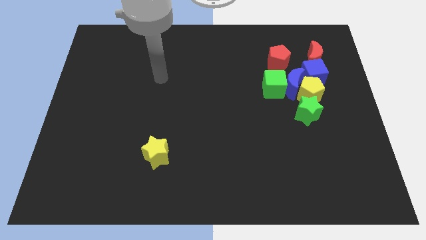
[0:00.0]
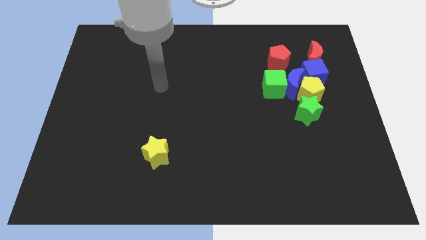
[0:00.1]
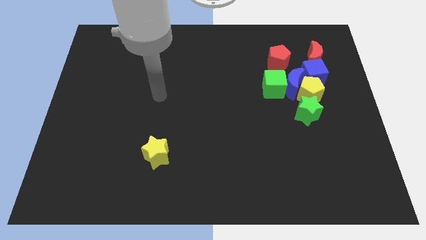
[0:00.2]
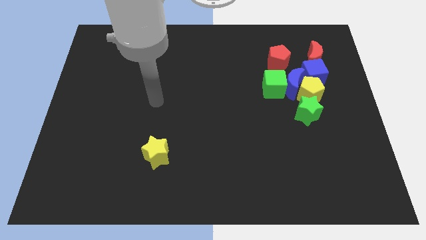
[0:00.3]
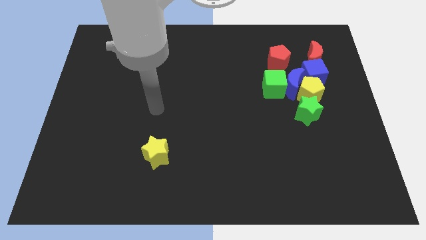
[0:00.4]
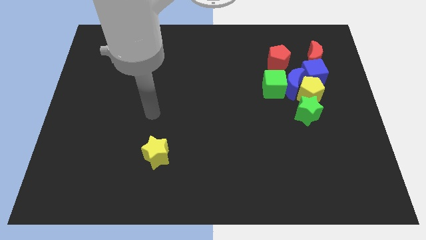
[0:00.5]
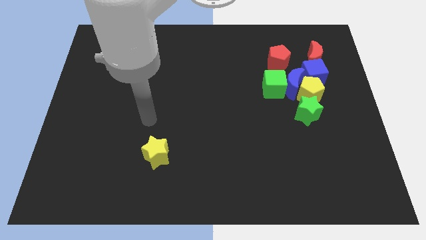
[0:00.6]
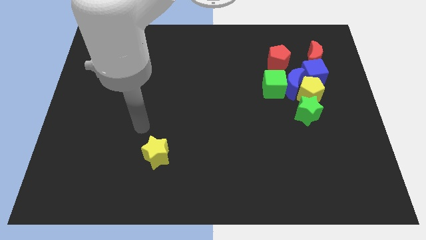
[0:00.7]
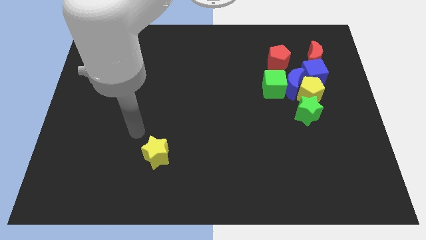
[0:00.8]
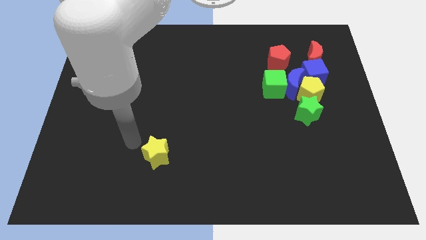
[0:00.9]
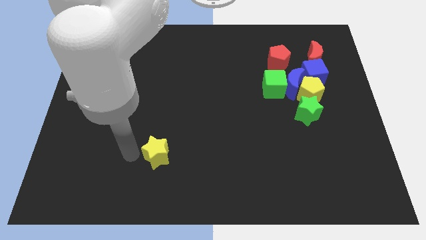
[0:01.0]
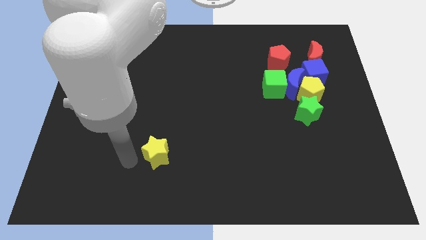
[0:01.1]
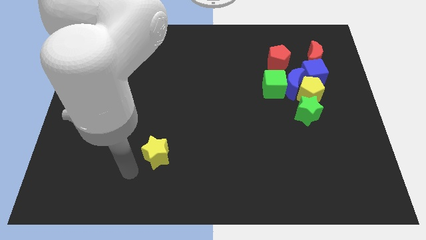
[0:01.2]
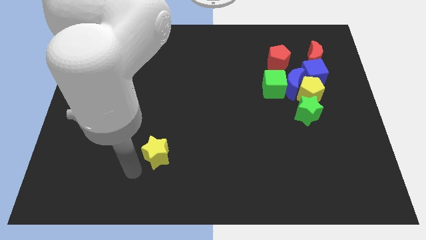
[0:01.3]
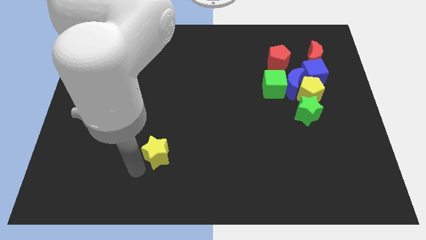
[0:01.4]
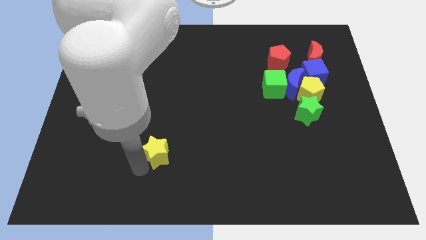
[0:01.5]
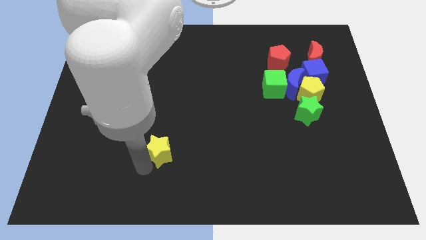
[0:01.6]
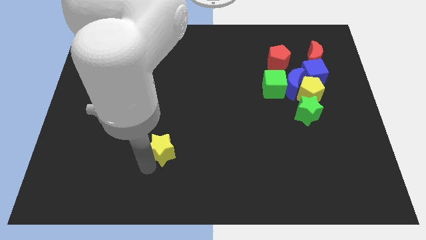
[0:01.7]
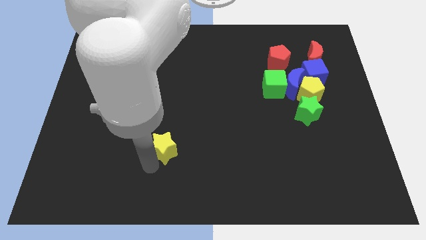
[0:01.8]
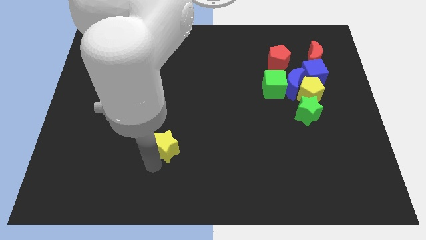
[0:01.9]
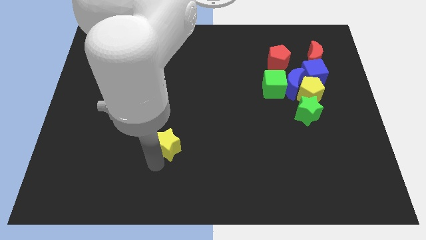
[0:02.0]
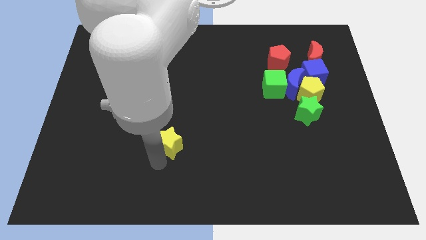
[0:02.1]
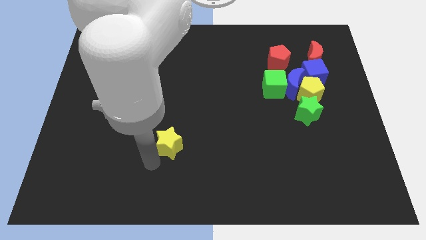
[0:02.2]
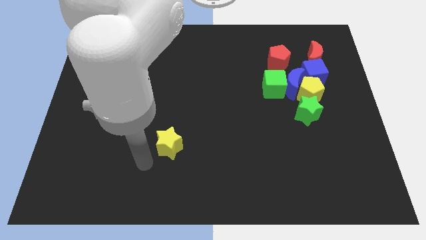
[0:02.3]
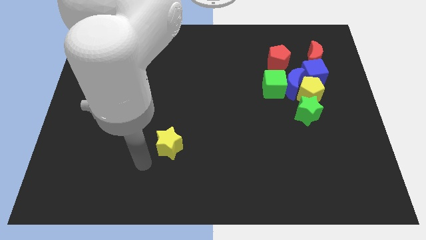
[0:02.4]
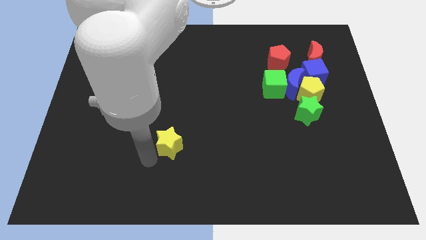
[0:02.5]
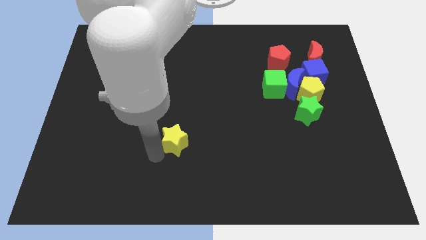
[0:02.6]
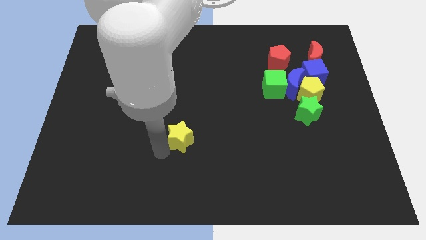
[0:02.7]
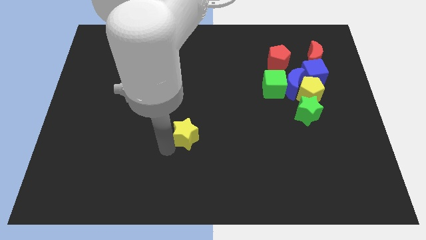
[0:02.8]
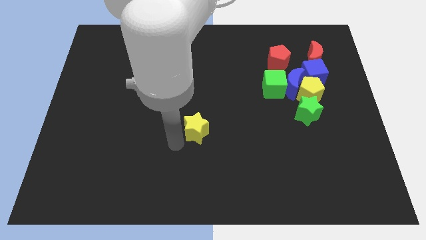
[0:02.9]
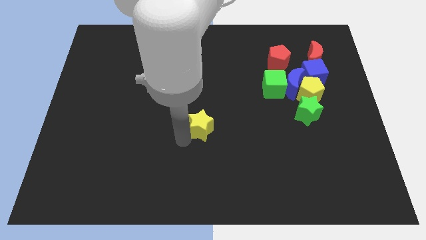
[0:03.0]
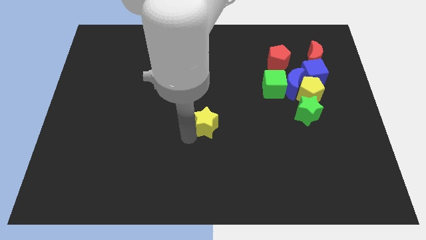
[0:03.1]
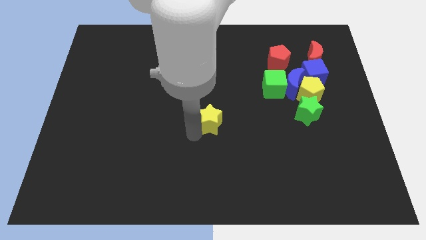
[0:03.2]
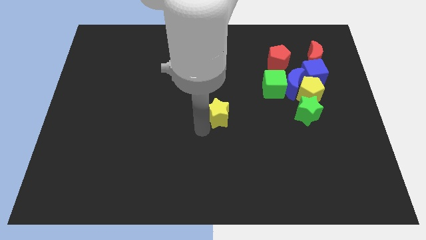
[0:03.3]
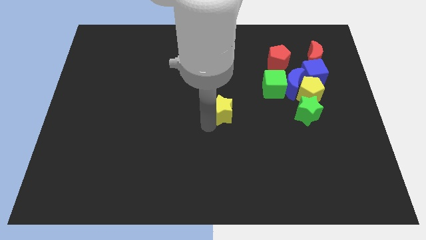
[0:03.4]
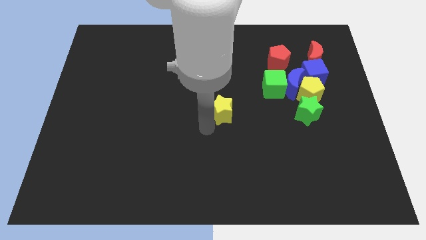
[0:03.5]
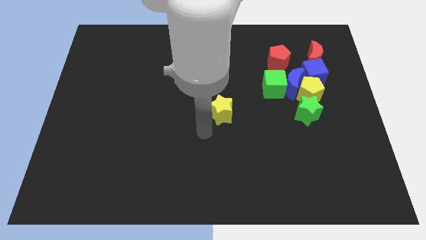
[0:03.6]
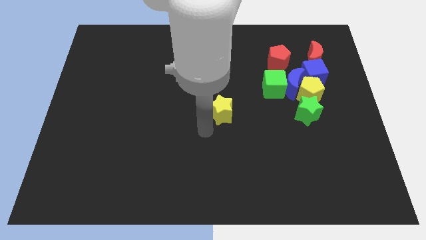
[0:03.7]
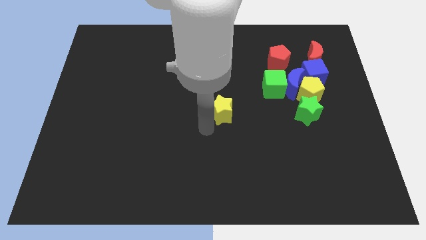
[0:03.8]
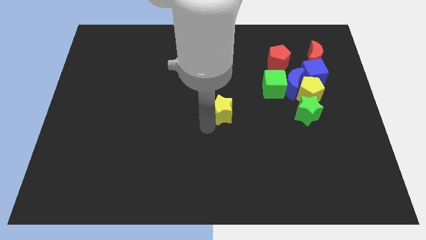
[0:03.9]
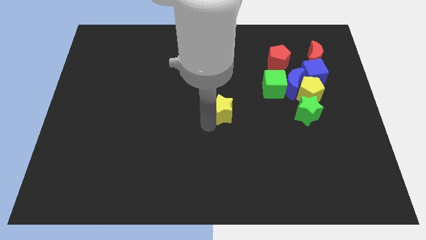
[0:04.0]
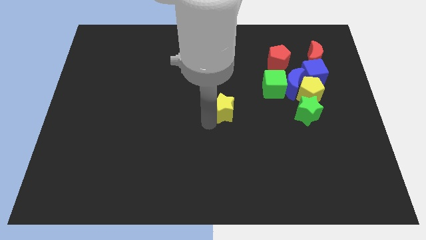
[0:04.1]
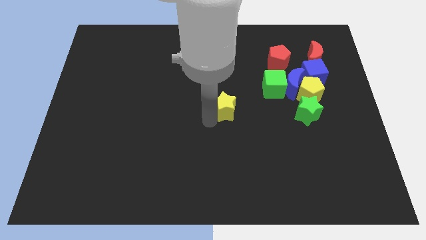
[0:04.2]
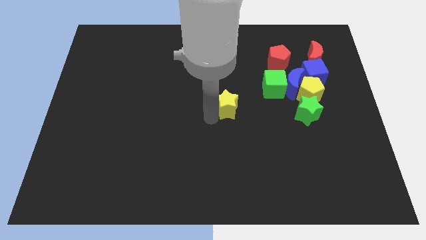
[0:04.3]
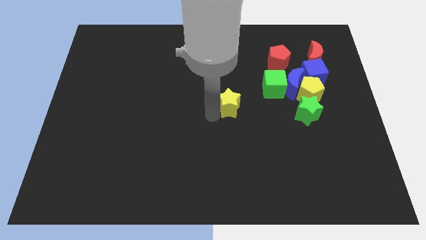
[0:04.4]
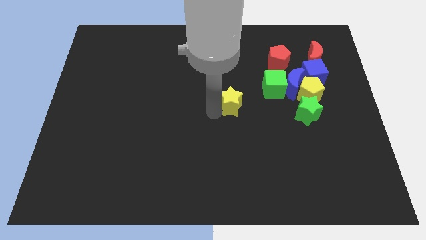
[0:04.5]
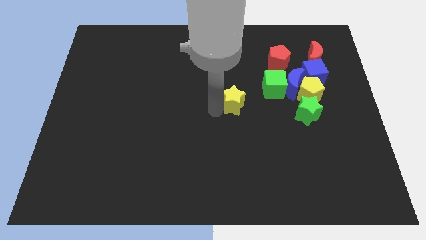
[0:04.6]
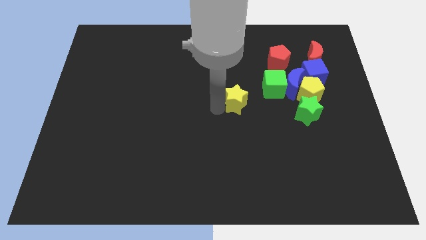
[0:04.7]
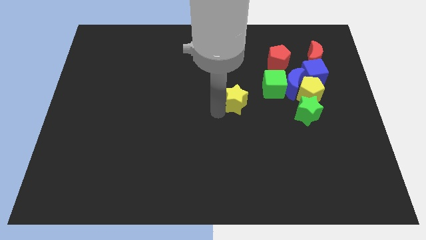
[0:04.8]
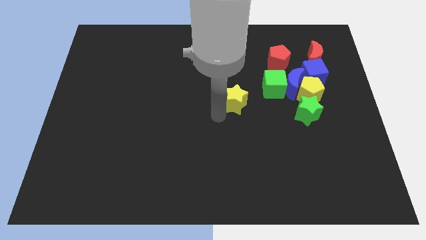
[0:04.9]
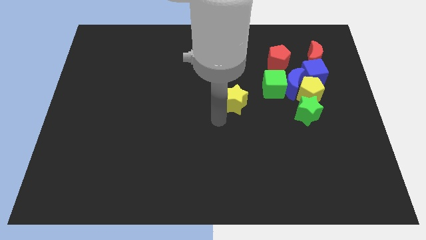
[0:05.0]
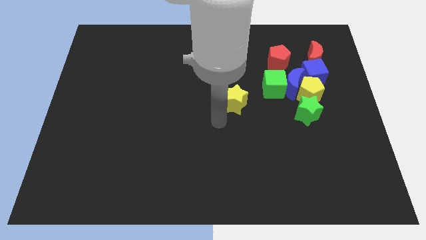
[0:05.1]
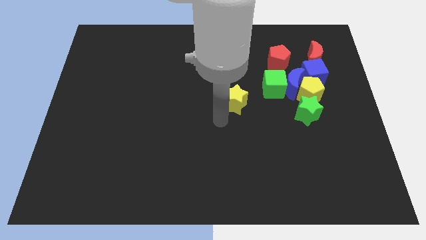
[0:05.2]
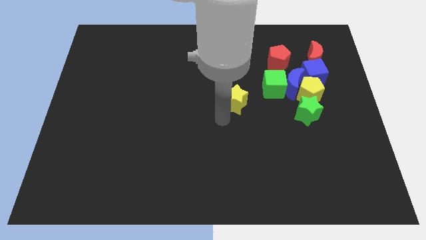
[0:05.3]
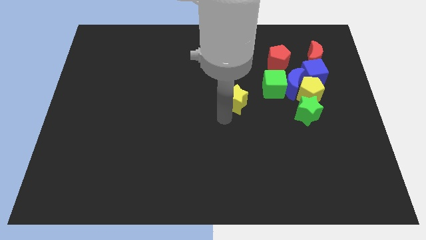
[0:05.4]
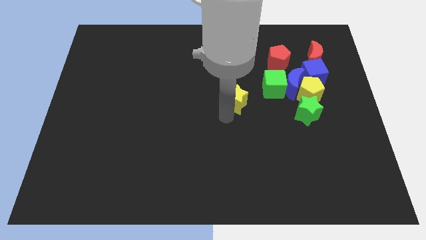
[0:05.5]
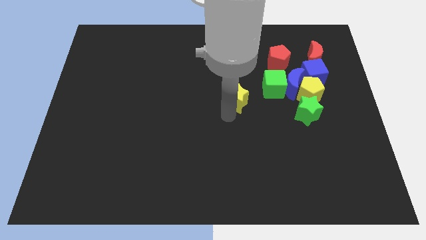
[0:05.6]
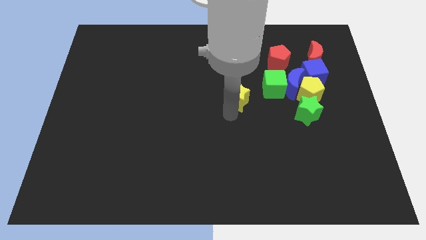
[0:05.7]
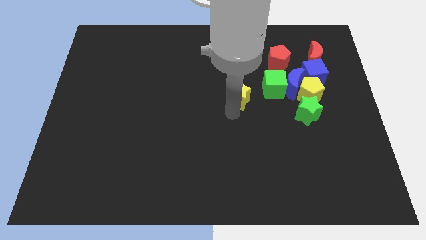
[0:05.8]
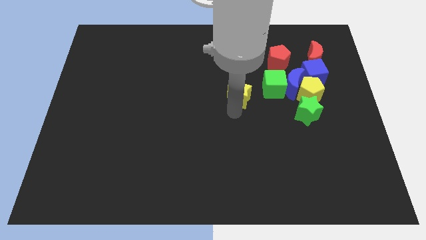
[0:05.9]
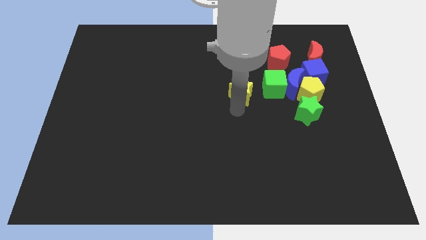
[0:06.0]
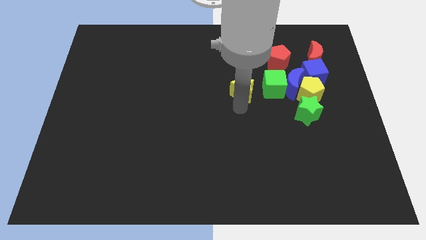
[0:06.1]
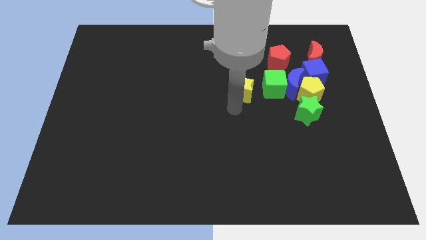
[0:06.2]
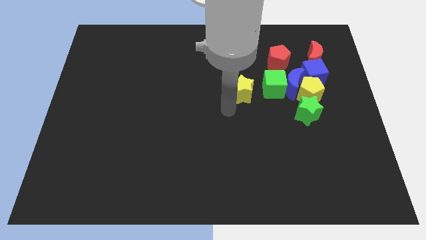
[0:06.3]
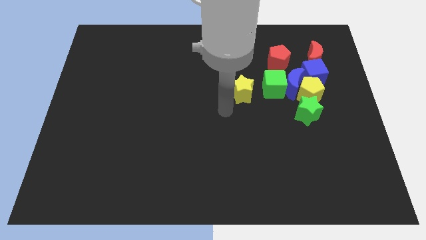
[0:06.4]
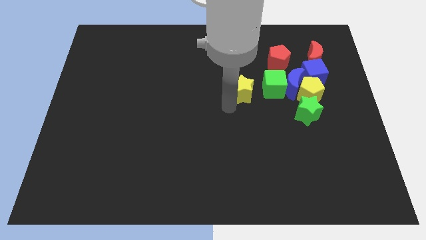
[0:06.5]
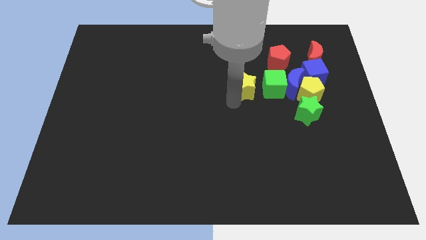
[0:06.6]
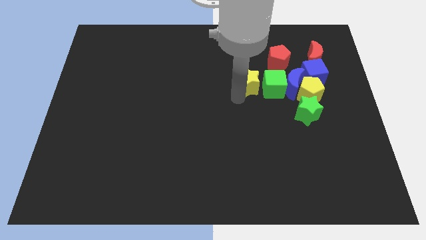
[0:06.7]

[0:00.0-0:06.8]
move the yellow star diagonally down and to the left of the red pentagon

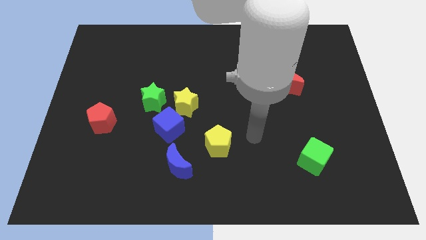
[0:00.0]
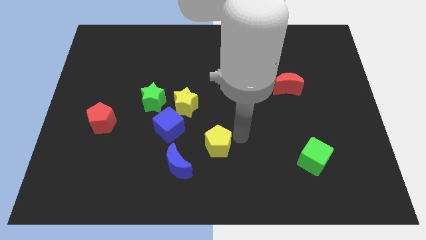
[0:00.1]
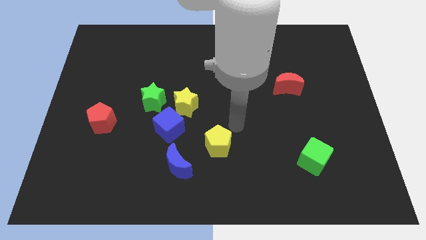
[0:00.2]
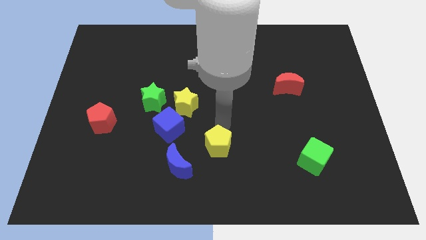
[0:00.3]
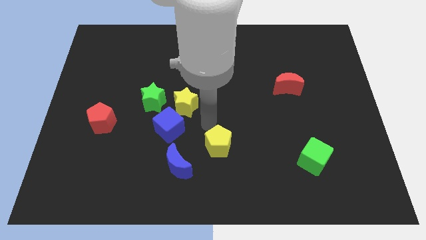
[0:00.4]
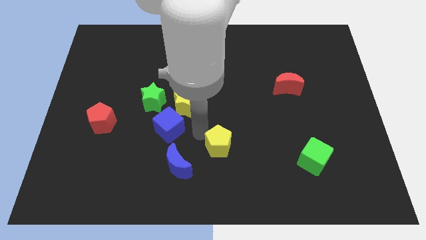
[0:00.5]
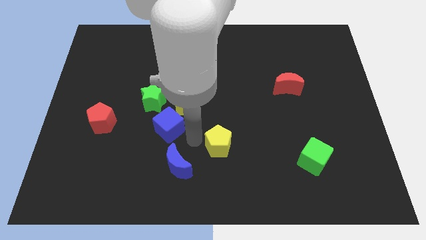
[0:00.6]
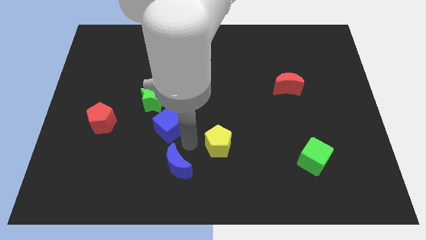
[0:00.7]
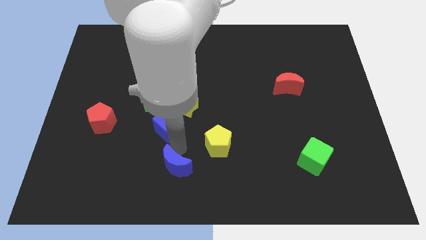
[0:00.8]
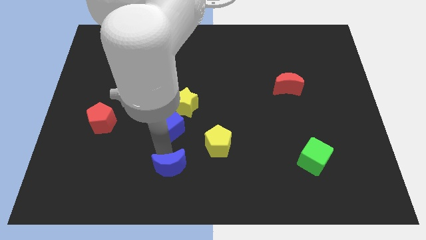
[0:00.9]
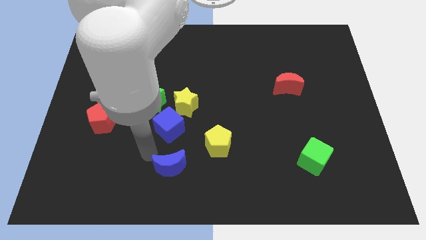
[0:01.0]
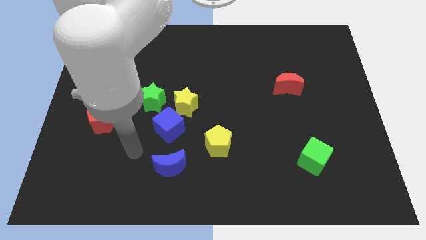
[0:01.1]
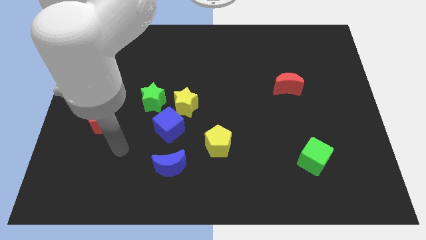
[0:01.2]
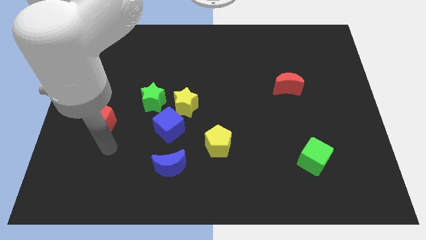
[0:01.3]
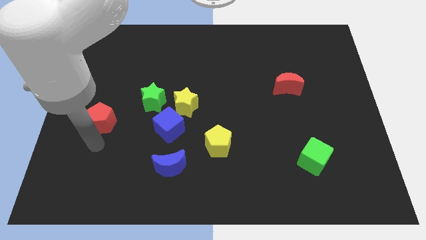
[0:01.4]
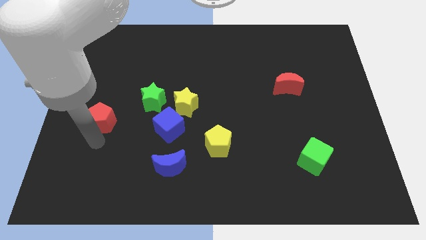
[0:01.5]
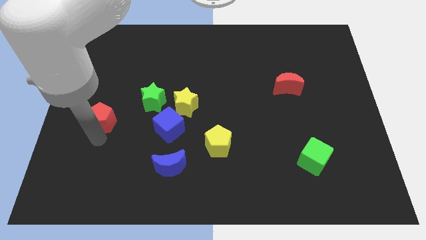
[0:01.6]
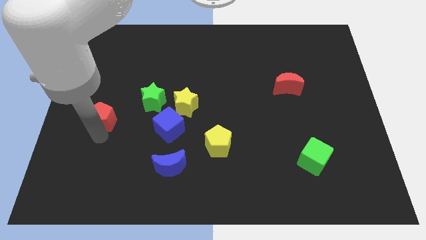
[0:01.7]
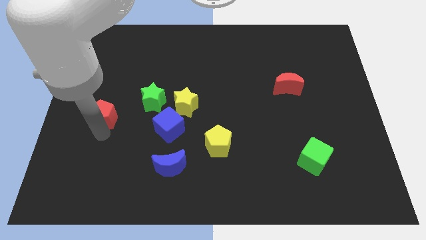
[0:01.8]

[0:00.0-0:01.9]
slide the red pentagon to the left side of the green star
